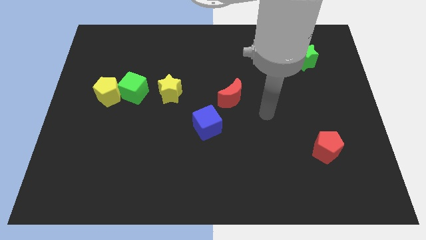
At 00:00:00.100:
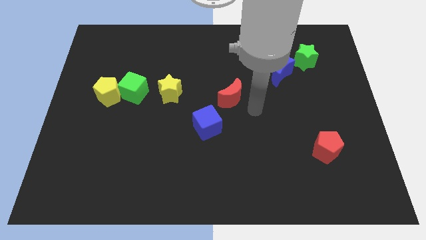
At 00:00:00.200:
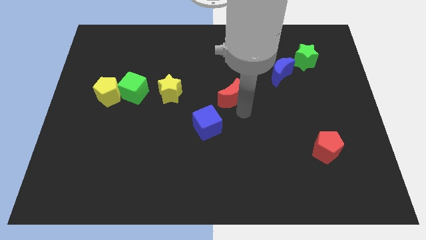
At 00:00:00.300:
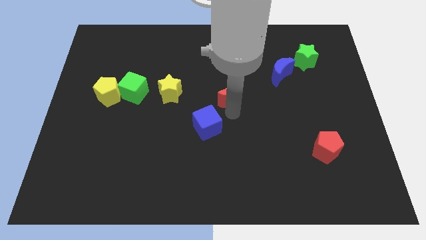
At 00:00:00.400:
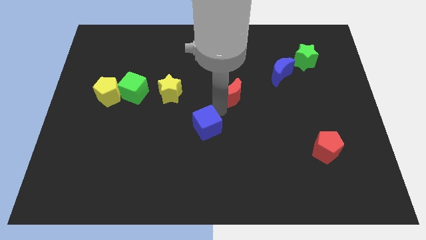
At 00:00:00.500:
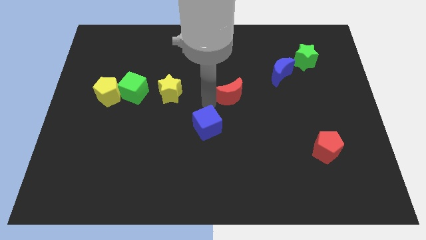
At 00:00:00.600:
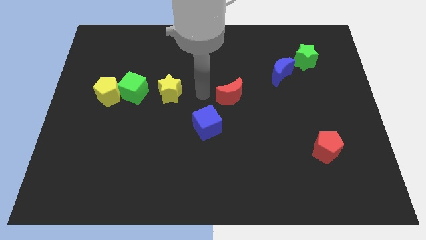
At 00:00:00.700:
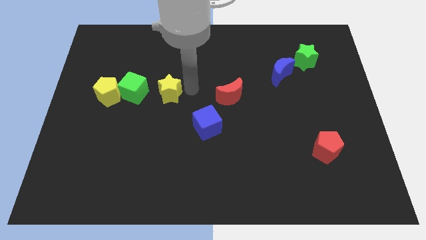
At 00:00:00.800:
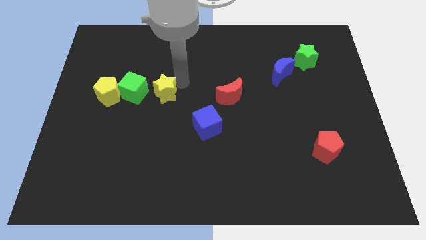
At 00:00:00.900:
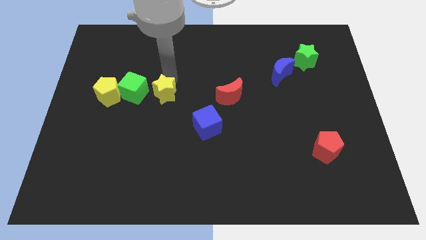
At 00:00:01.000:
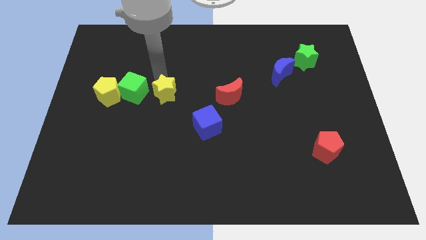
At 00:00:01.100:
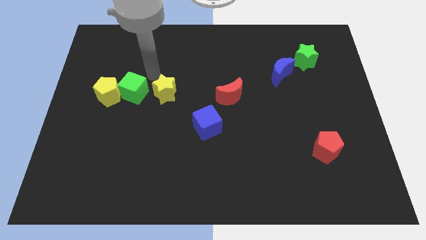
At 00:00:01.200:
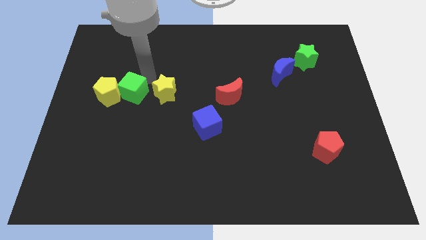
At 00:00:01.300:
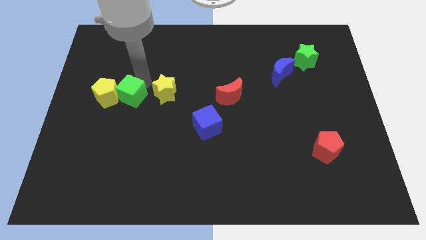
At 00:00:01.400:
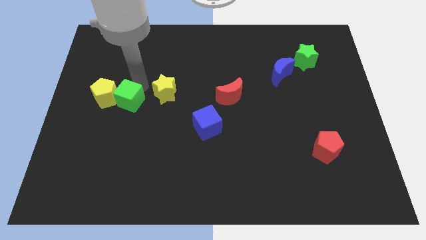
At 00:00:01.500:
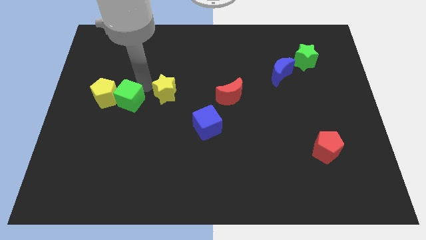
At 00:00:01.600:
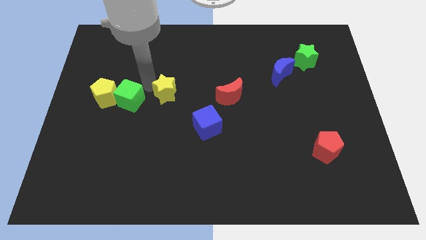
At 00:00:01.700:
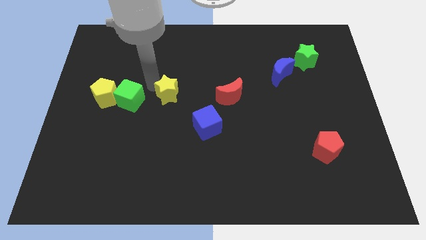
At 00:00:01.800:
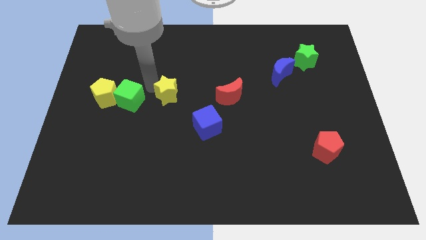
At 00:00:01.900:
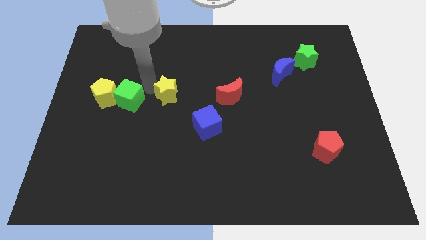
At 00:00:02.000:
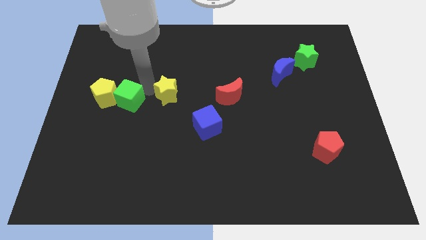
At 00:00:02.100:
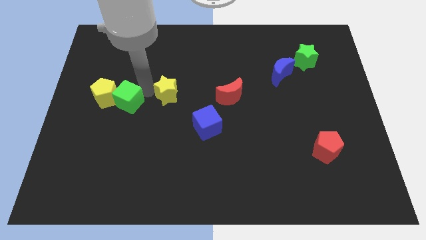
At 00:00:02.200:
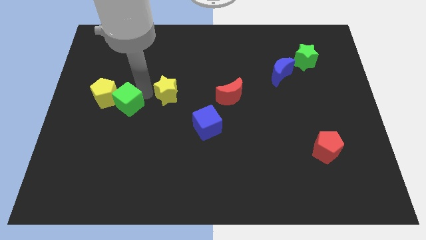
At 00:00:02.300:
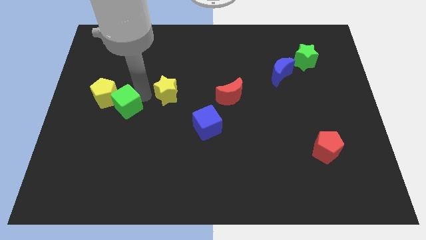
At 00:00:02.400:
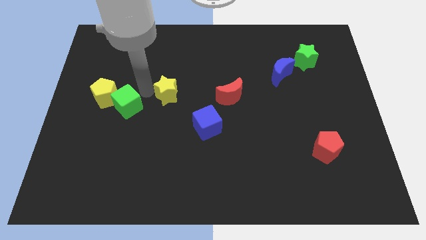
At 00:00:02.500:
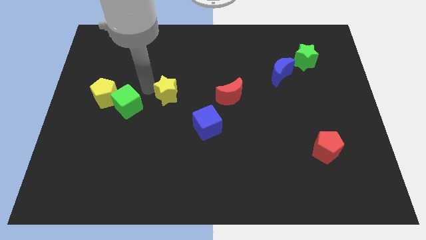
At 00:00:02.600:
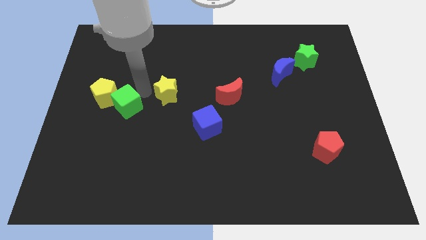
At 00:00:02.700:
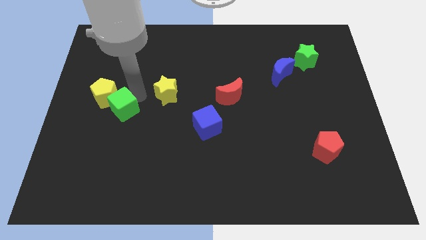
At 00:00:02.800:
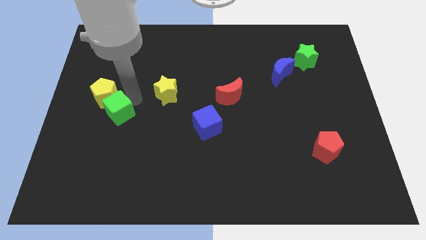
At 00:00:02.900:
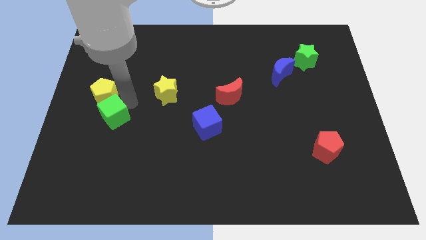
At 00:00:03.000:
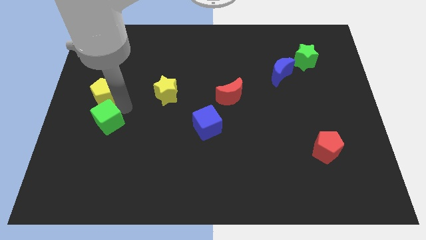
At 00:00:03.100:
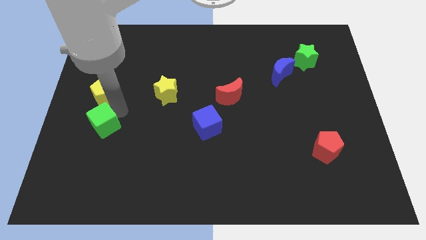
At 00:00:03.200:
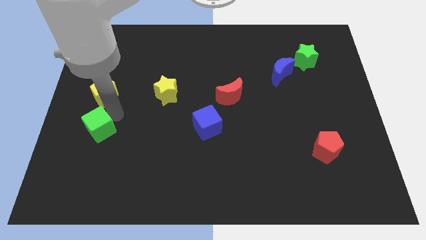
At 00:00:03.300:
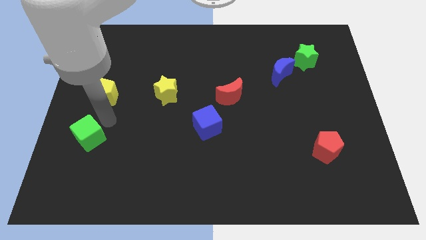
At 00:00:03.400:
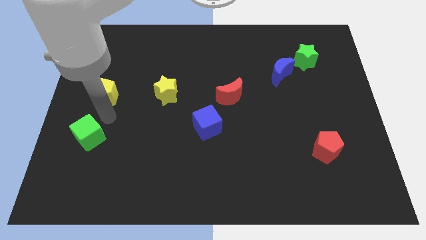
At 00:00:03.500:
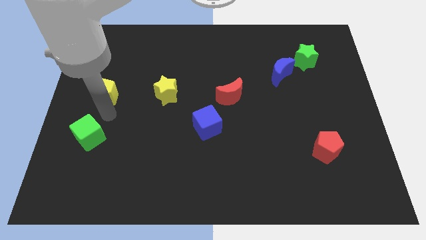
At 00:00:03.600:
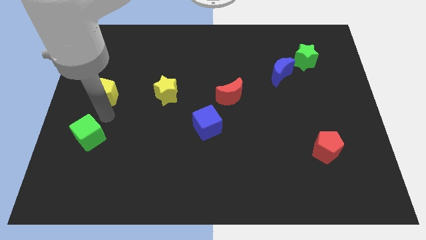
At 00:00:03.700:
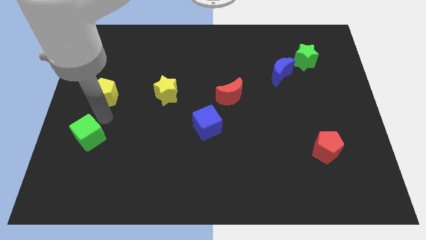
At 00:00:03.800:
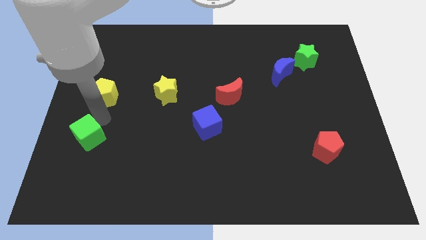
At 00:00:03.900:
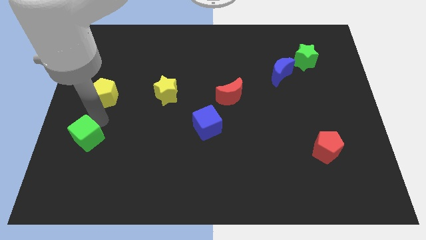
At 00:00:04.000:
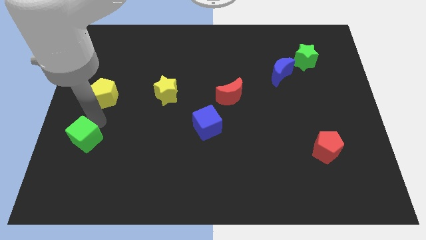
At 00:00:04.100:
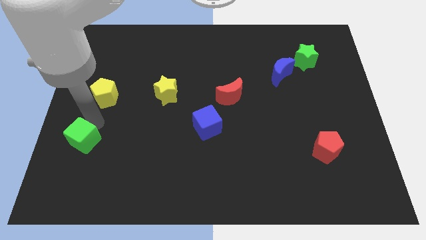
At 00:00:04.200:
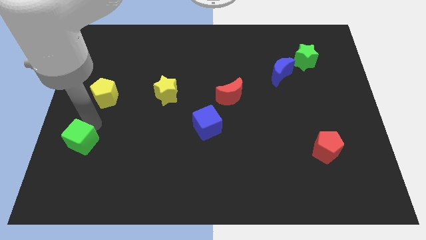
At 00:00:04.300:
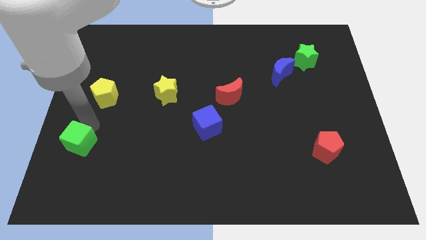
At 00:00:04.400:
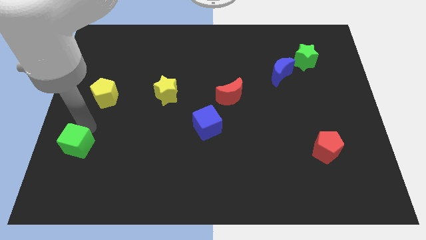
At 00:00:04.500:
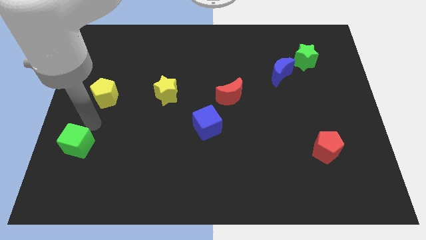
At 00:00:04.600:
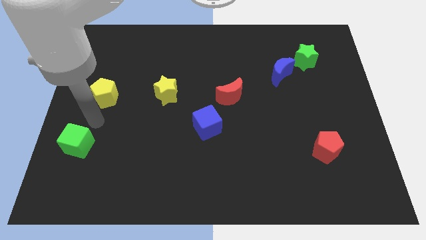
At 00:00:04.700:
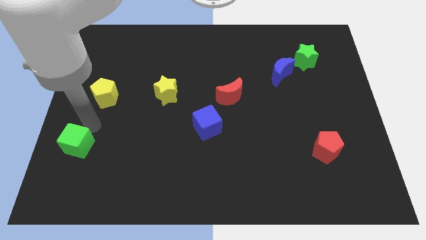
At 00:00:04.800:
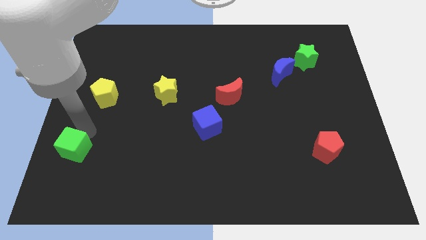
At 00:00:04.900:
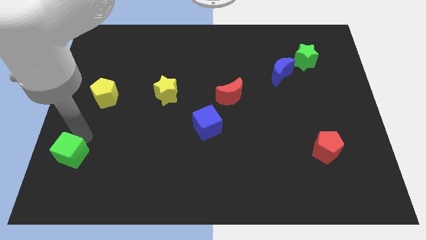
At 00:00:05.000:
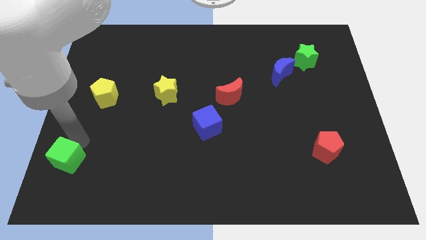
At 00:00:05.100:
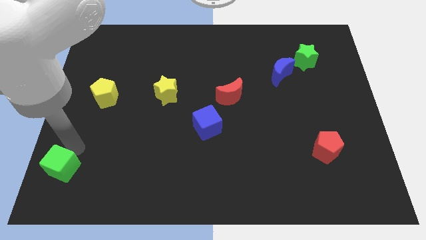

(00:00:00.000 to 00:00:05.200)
move the green cube to the lower left corner

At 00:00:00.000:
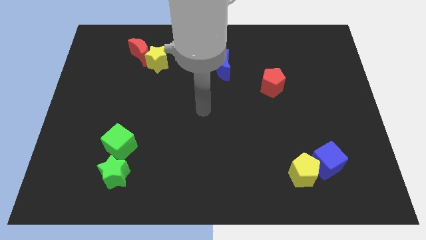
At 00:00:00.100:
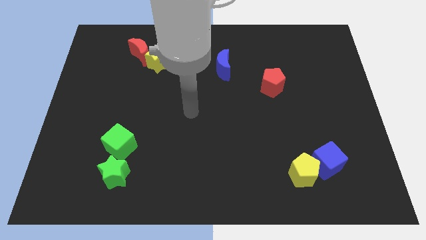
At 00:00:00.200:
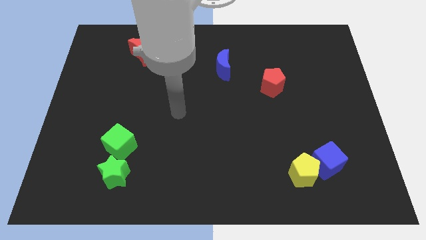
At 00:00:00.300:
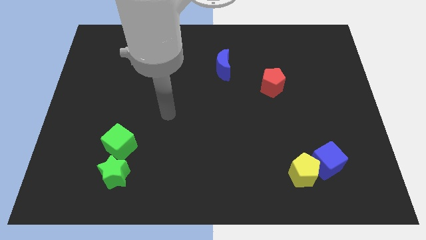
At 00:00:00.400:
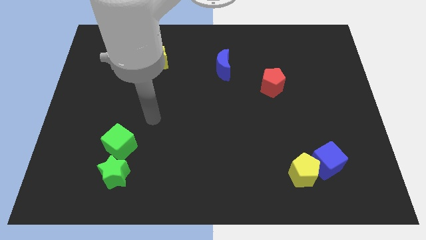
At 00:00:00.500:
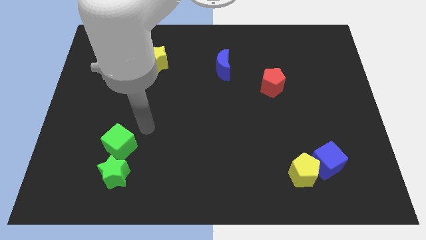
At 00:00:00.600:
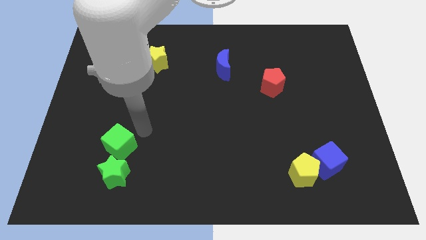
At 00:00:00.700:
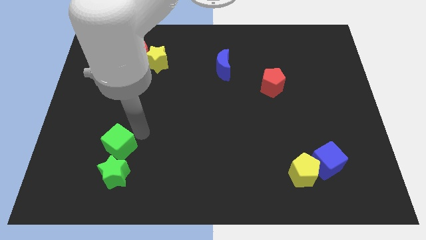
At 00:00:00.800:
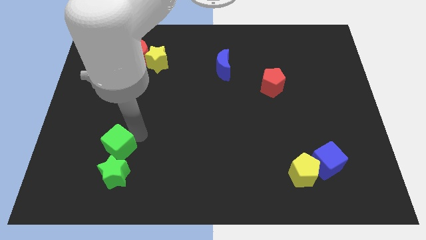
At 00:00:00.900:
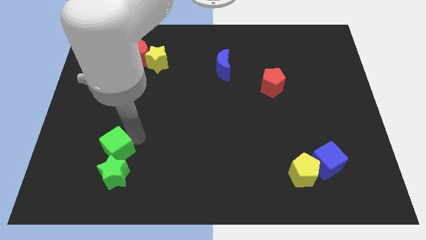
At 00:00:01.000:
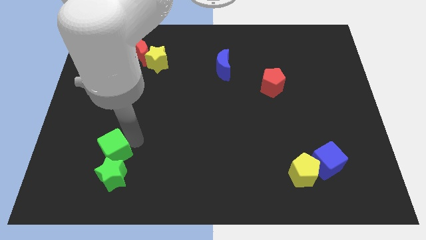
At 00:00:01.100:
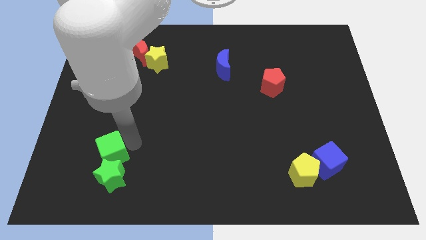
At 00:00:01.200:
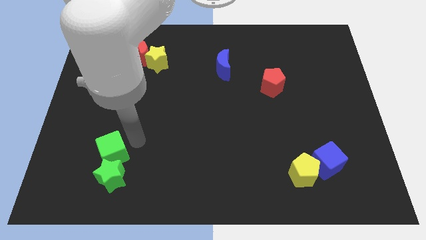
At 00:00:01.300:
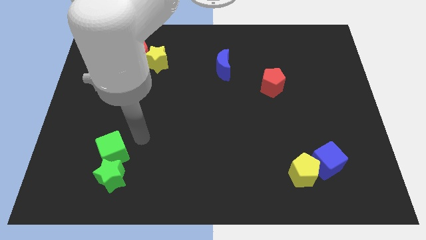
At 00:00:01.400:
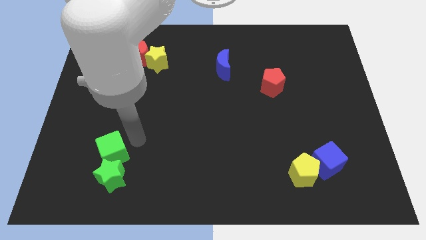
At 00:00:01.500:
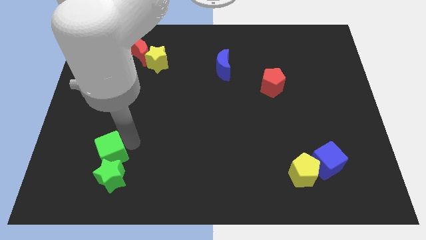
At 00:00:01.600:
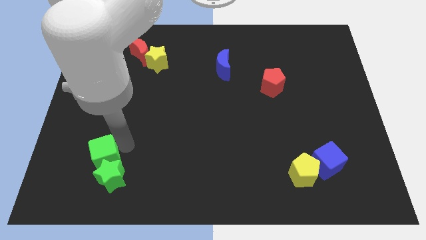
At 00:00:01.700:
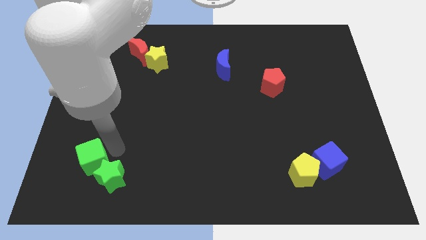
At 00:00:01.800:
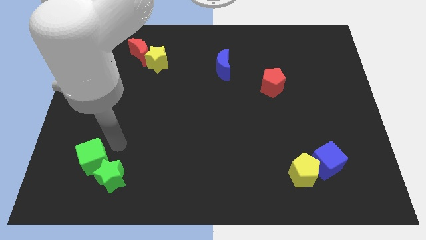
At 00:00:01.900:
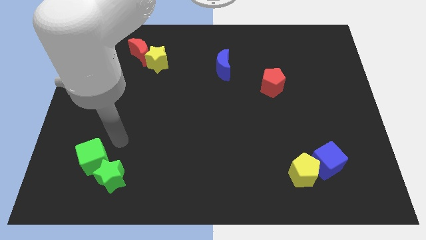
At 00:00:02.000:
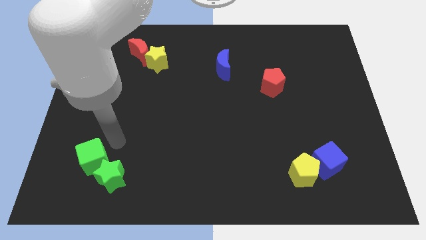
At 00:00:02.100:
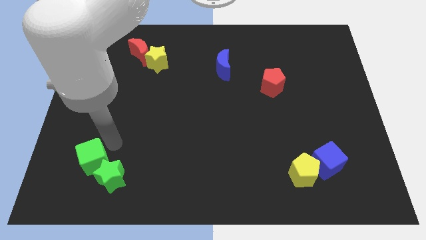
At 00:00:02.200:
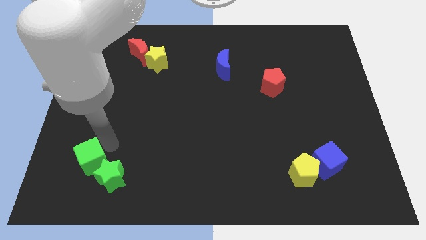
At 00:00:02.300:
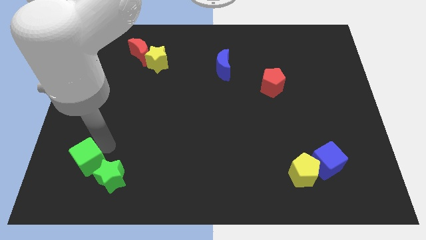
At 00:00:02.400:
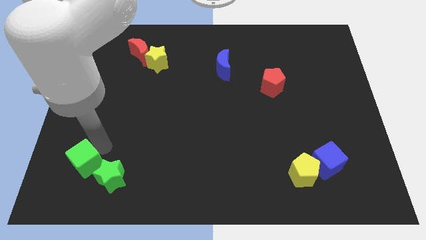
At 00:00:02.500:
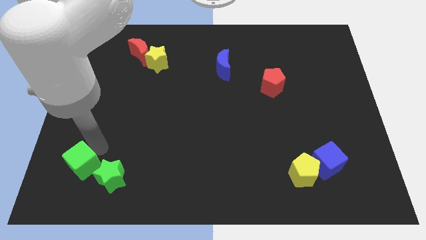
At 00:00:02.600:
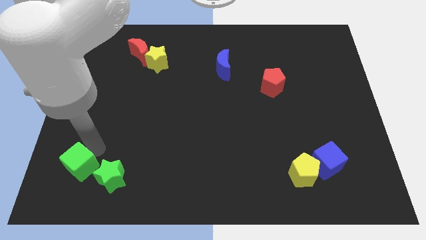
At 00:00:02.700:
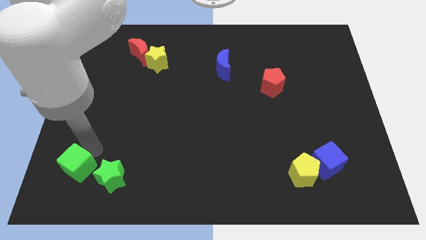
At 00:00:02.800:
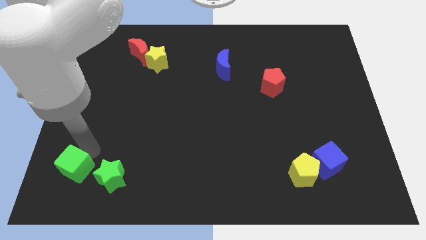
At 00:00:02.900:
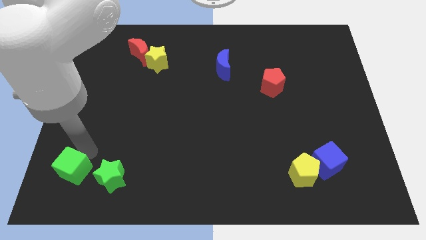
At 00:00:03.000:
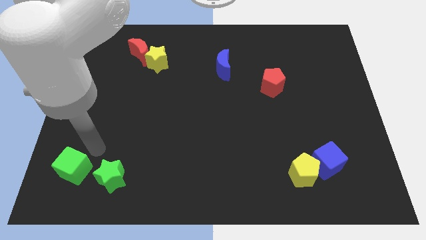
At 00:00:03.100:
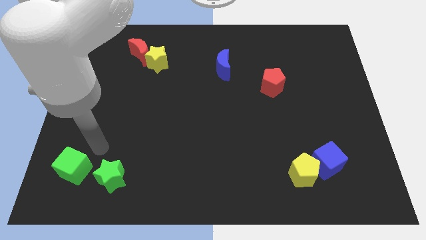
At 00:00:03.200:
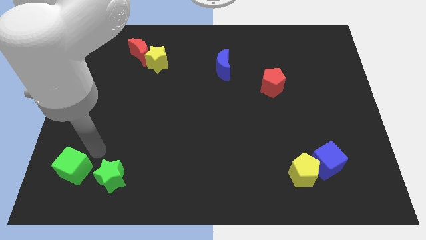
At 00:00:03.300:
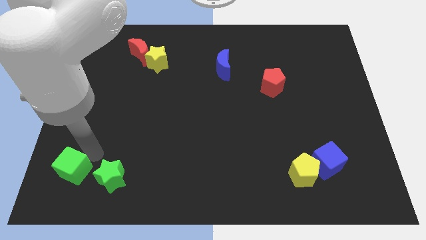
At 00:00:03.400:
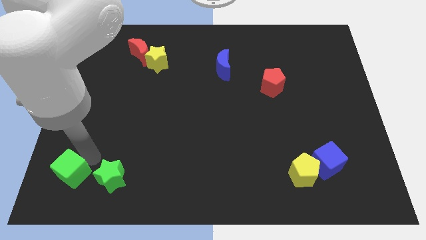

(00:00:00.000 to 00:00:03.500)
move the green cube to the bottom left of the board
